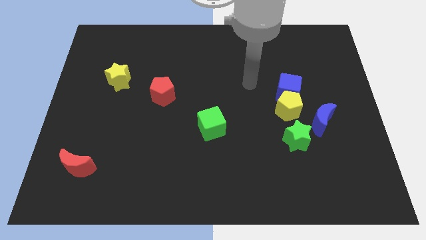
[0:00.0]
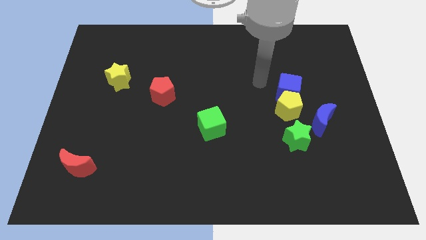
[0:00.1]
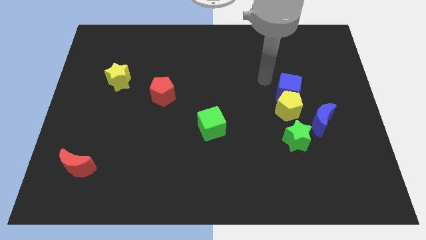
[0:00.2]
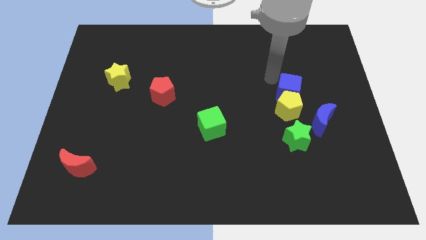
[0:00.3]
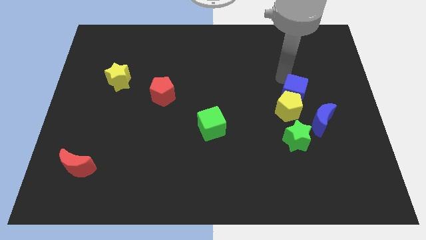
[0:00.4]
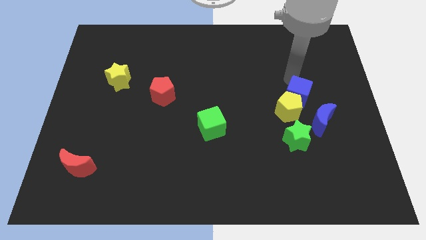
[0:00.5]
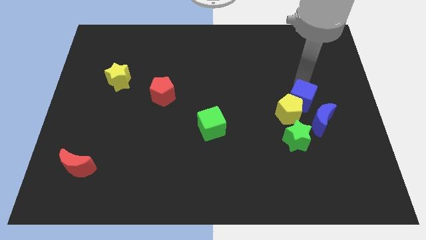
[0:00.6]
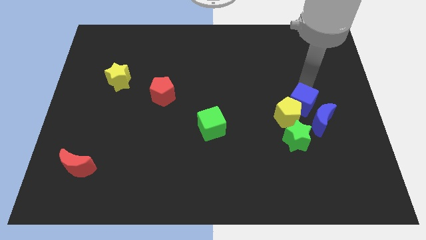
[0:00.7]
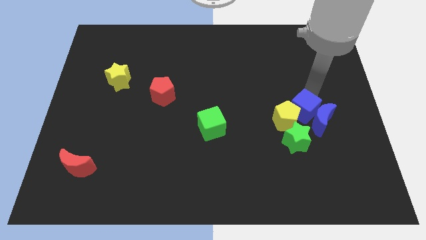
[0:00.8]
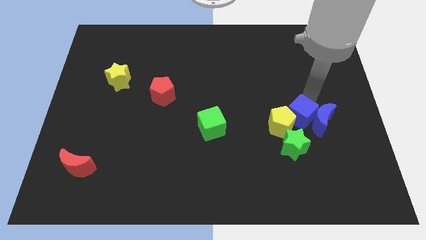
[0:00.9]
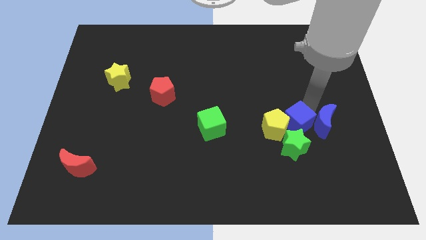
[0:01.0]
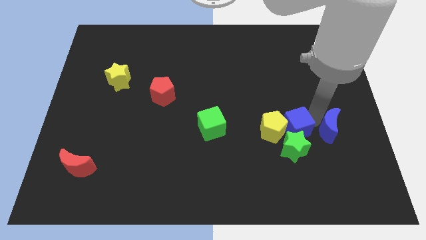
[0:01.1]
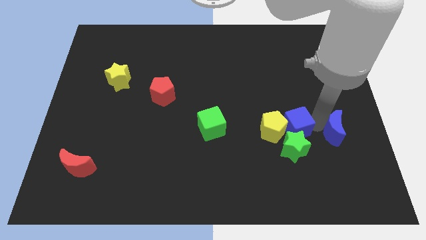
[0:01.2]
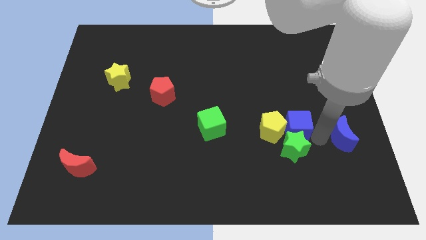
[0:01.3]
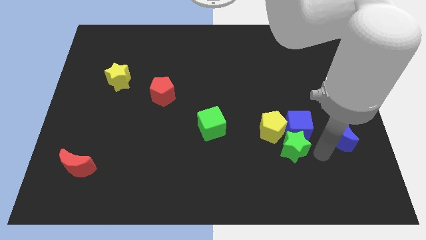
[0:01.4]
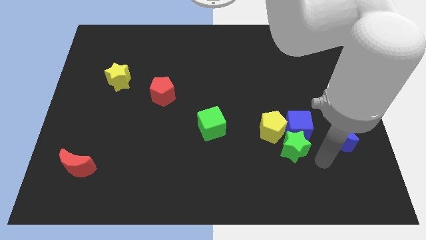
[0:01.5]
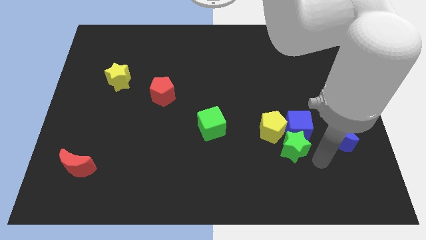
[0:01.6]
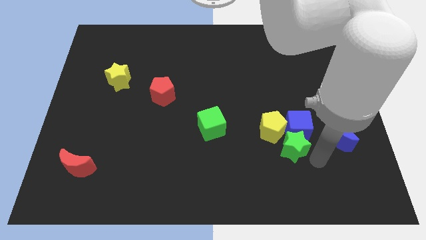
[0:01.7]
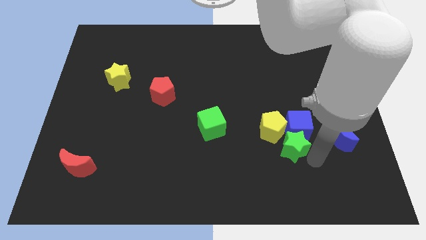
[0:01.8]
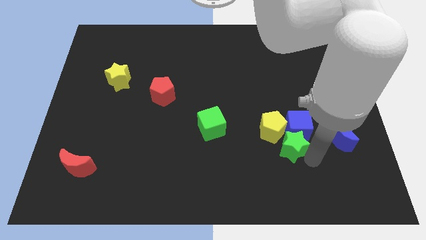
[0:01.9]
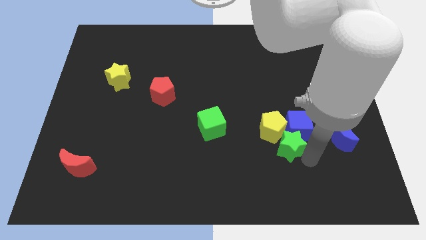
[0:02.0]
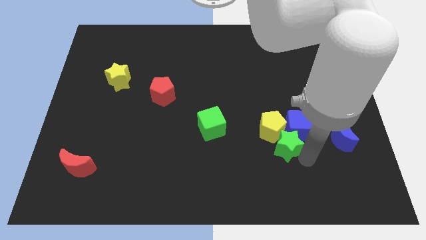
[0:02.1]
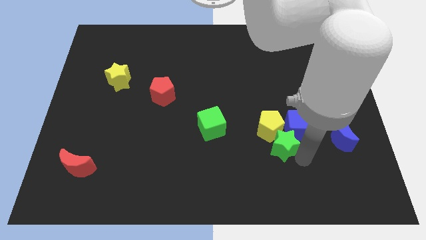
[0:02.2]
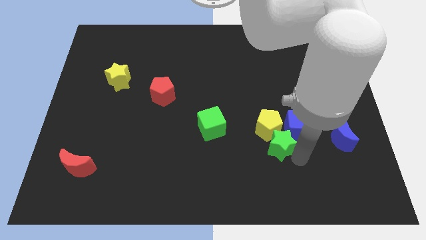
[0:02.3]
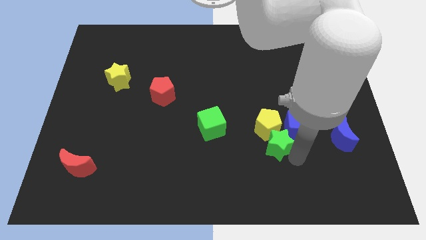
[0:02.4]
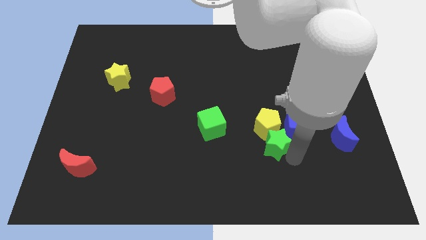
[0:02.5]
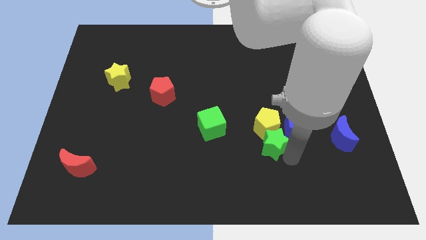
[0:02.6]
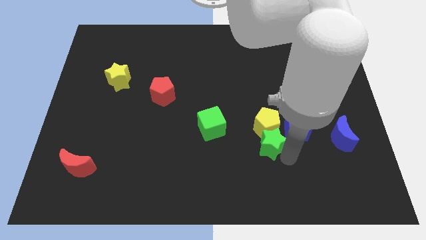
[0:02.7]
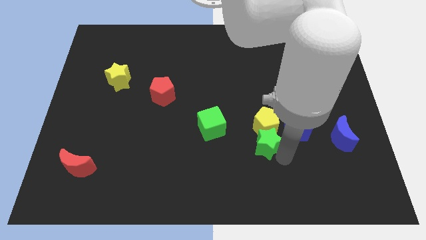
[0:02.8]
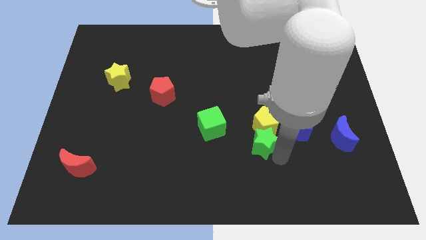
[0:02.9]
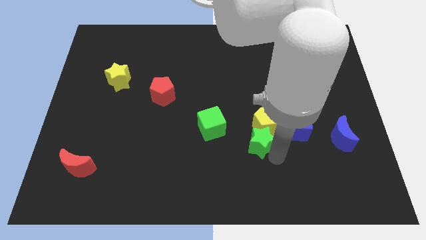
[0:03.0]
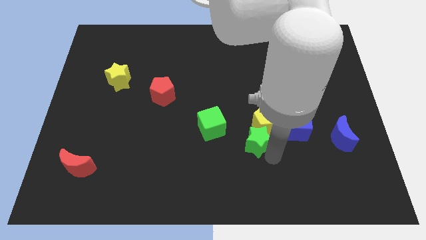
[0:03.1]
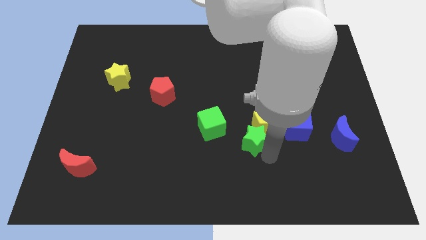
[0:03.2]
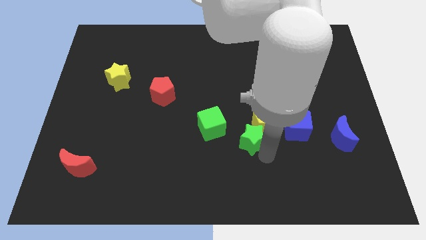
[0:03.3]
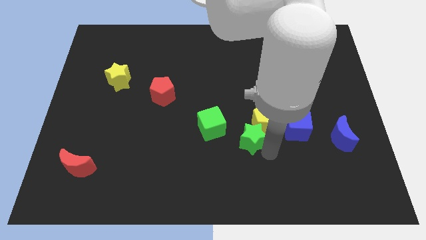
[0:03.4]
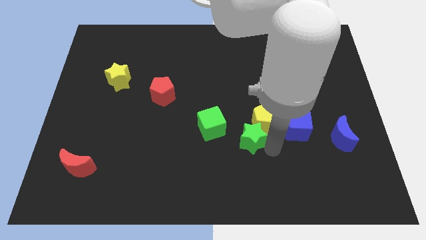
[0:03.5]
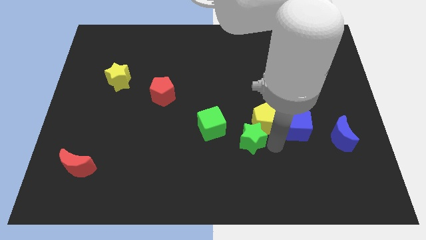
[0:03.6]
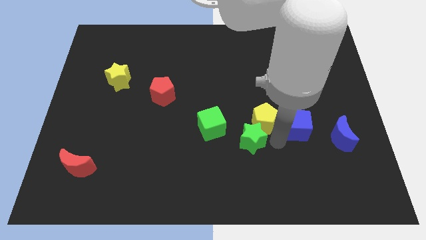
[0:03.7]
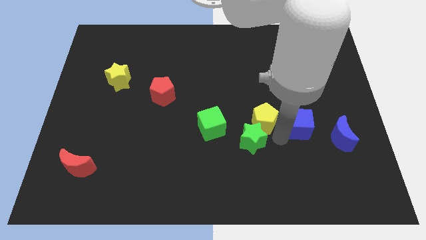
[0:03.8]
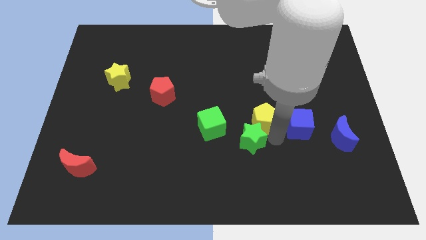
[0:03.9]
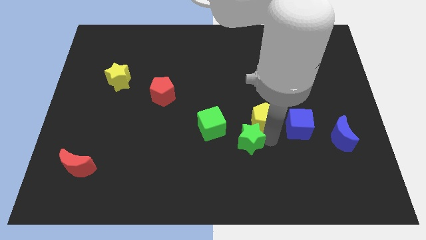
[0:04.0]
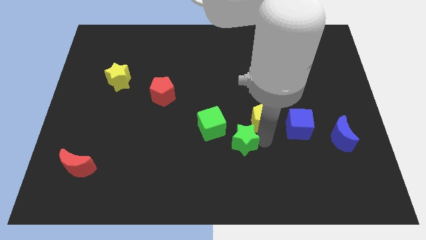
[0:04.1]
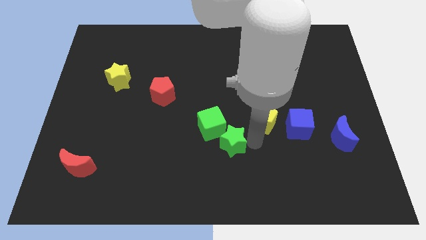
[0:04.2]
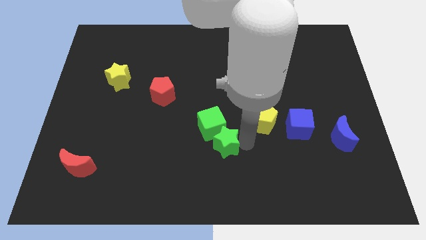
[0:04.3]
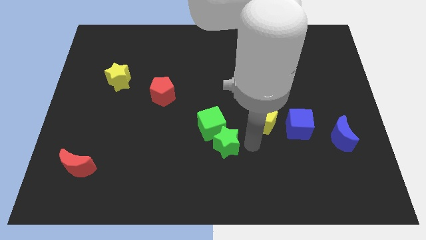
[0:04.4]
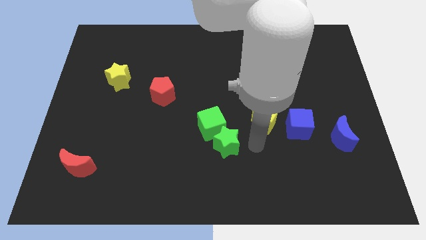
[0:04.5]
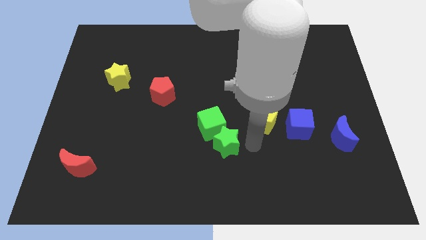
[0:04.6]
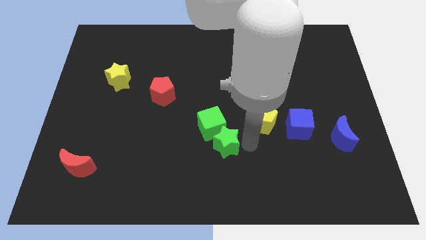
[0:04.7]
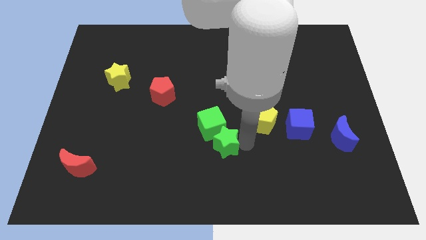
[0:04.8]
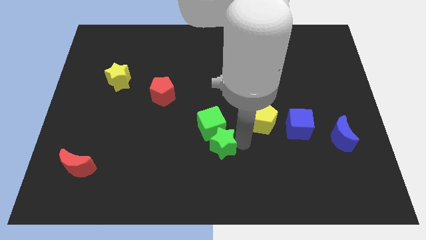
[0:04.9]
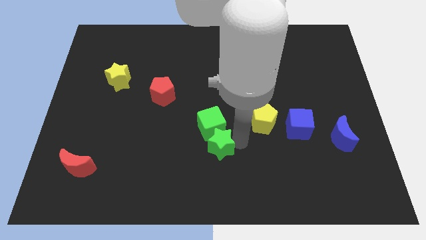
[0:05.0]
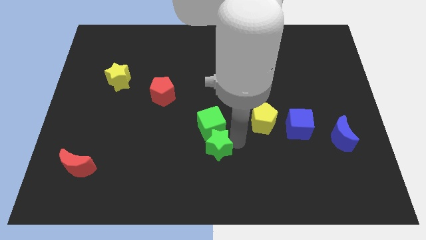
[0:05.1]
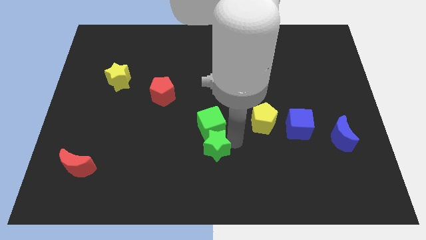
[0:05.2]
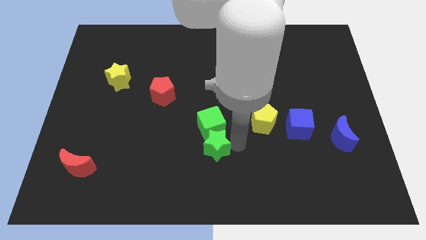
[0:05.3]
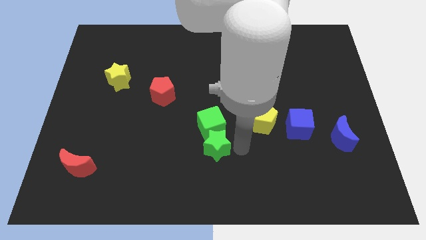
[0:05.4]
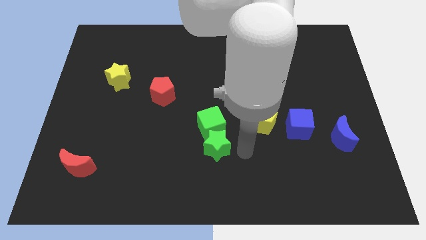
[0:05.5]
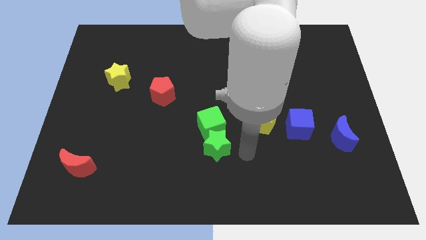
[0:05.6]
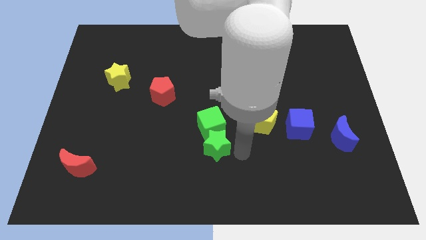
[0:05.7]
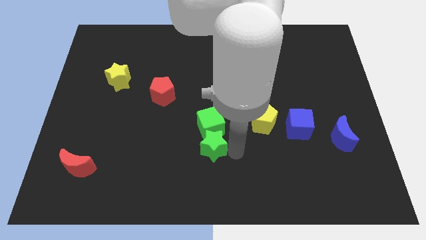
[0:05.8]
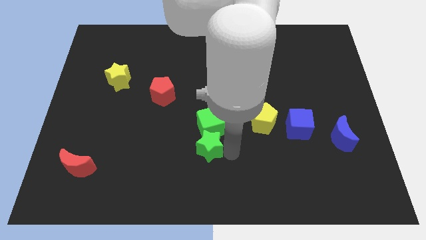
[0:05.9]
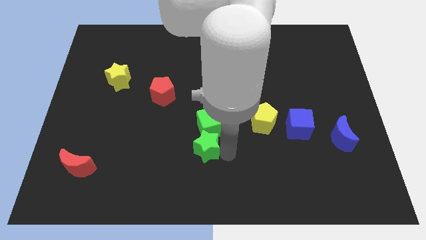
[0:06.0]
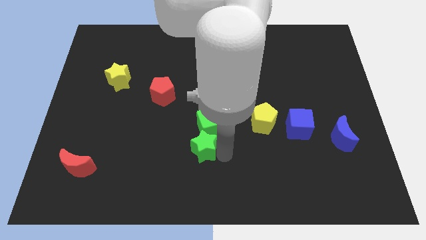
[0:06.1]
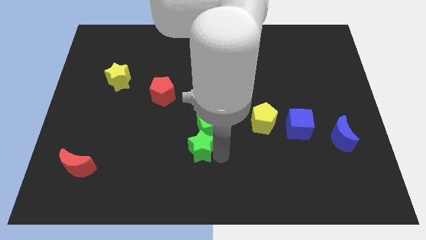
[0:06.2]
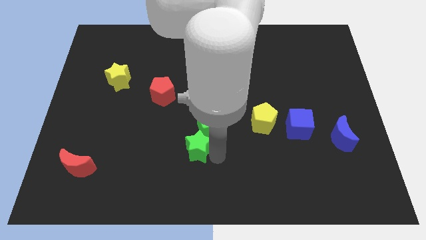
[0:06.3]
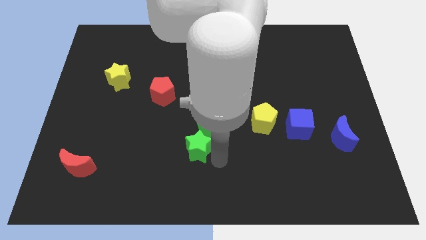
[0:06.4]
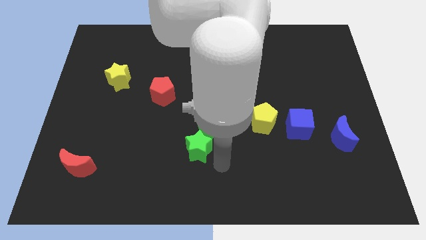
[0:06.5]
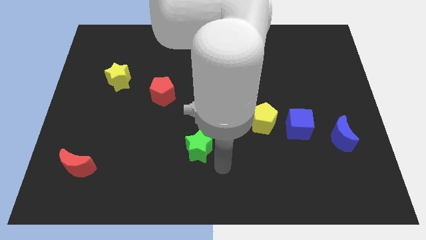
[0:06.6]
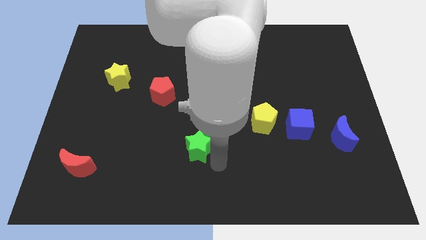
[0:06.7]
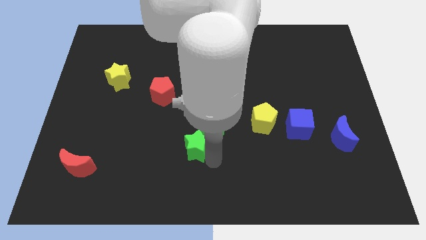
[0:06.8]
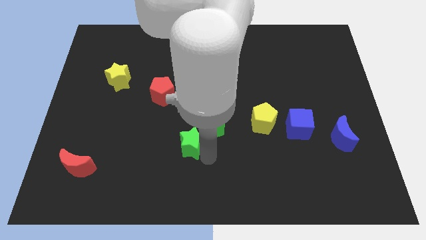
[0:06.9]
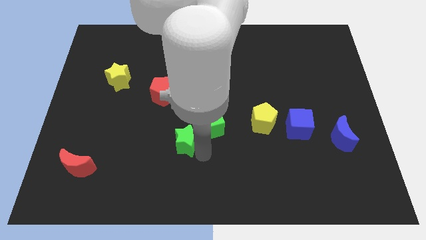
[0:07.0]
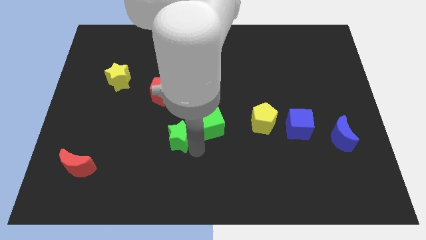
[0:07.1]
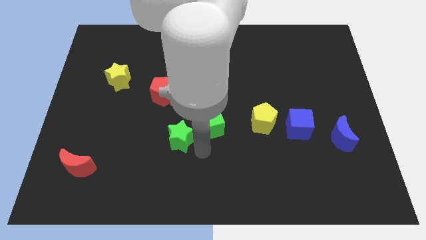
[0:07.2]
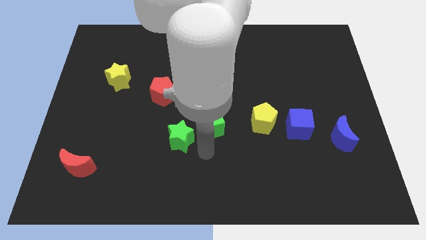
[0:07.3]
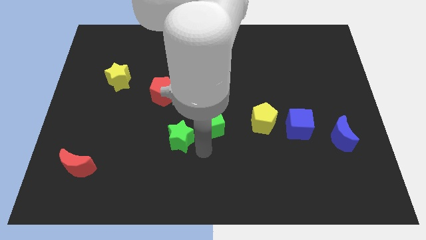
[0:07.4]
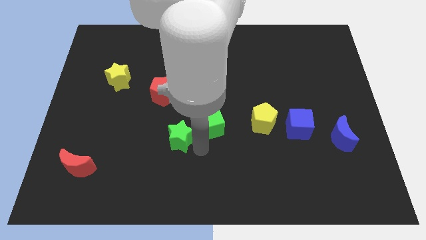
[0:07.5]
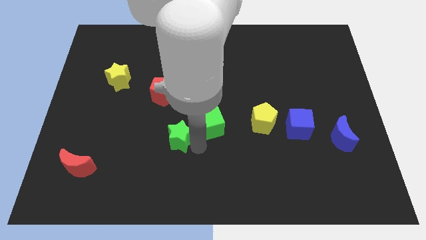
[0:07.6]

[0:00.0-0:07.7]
slide the green star to the bottom side of the red pentagon
